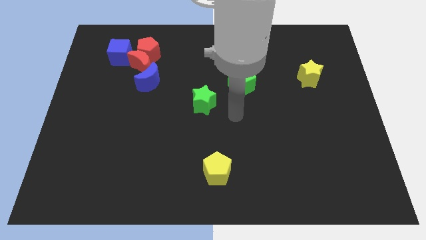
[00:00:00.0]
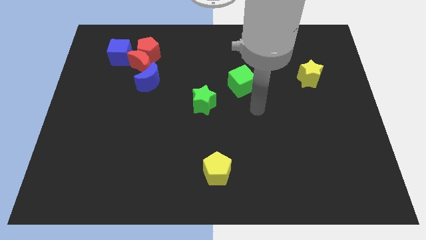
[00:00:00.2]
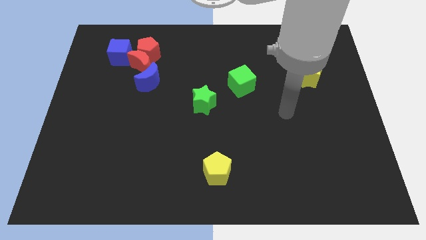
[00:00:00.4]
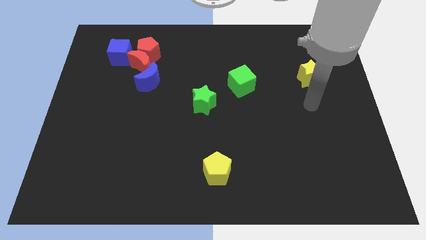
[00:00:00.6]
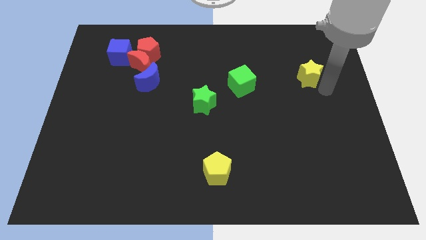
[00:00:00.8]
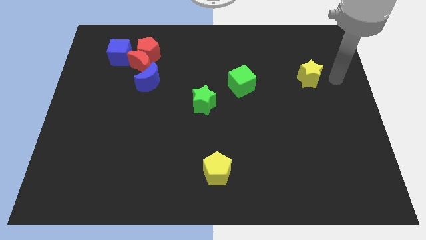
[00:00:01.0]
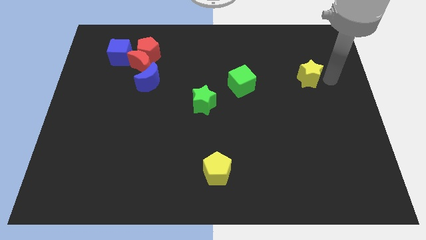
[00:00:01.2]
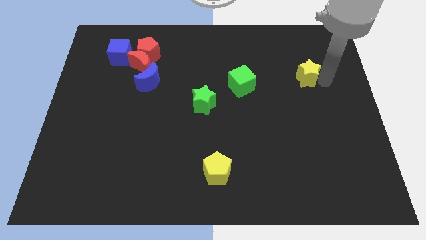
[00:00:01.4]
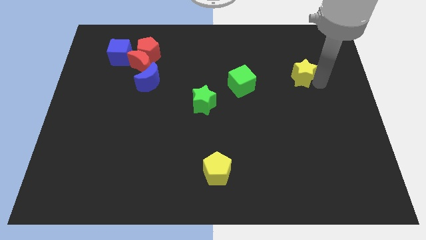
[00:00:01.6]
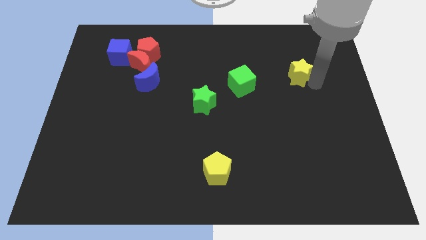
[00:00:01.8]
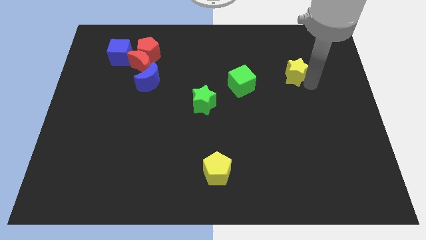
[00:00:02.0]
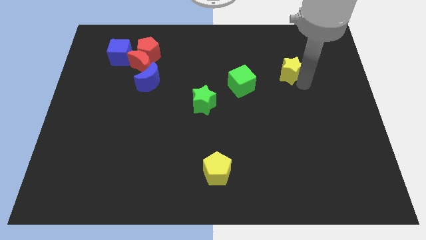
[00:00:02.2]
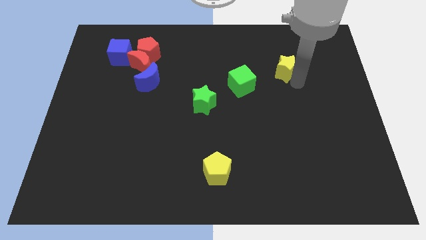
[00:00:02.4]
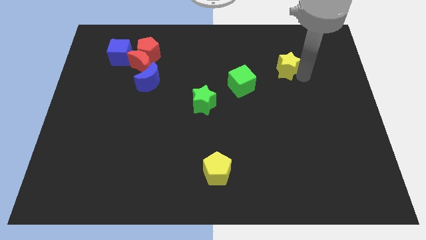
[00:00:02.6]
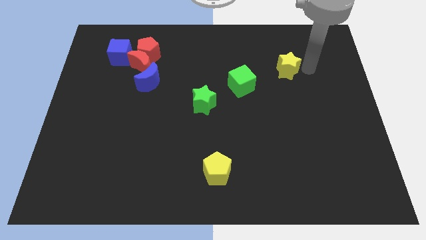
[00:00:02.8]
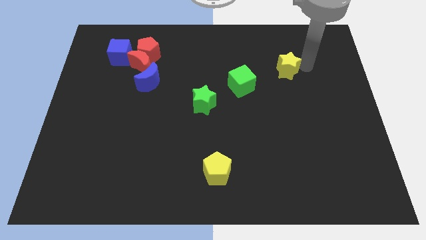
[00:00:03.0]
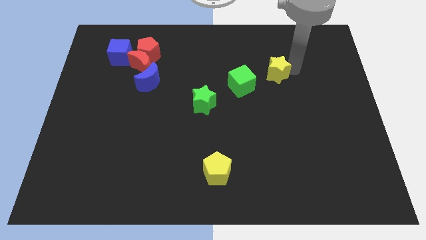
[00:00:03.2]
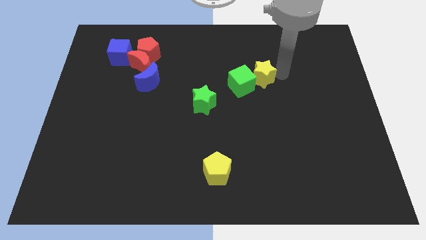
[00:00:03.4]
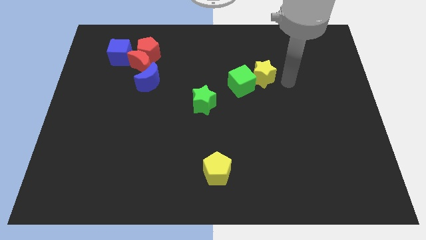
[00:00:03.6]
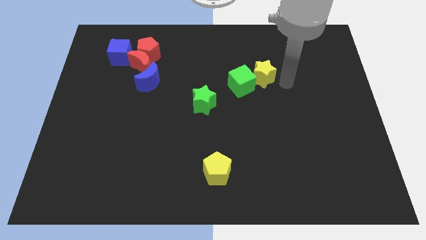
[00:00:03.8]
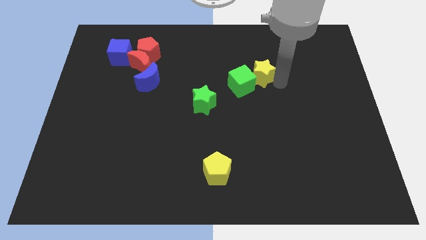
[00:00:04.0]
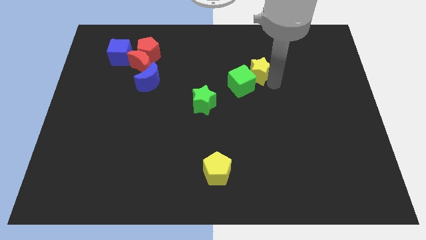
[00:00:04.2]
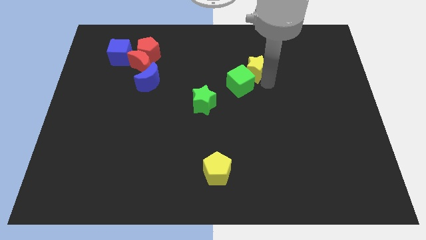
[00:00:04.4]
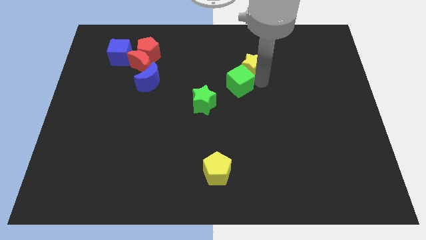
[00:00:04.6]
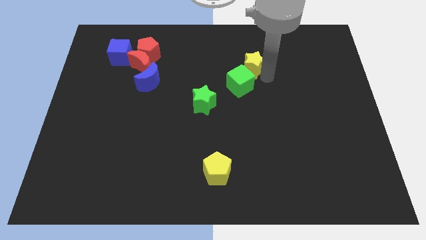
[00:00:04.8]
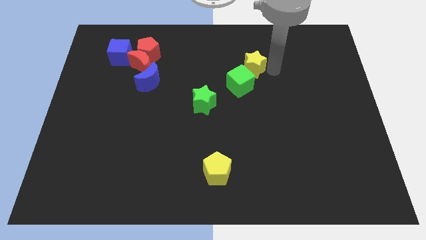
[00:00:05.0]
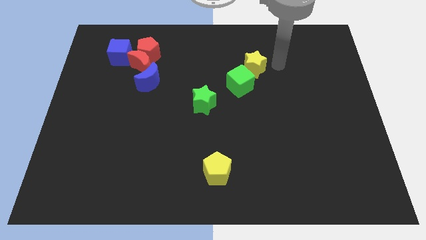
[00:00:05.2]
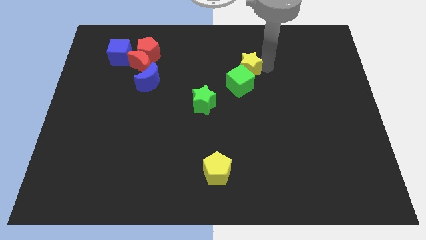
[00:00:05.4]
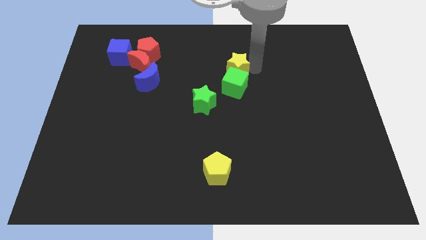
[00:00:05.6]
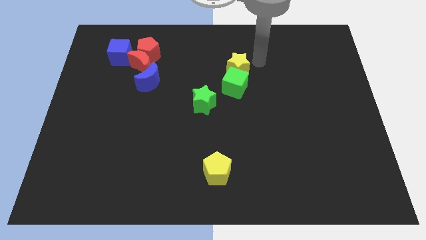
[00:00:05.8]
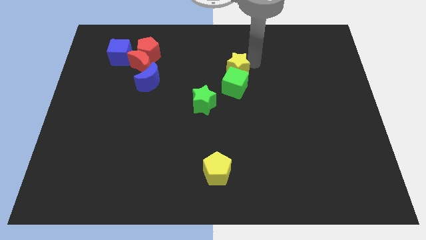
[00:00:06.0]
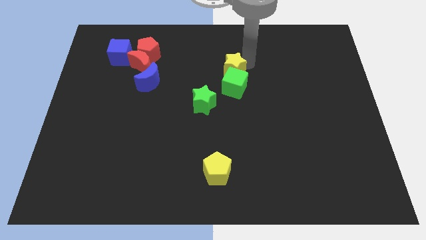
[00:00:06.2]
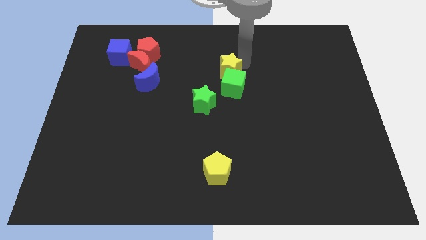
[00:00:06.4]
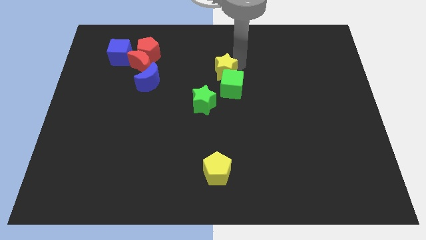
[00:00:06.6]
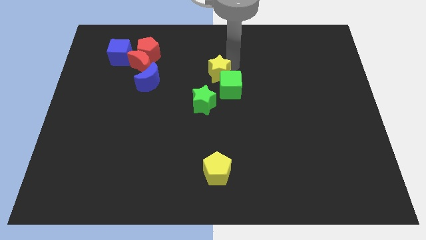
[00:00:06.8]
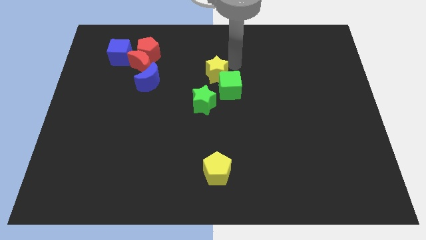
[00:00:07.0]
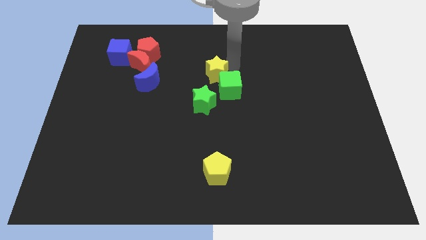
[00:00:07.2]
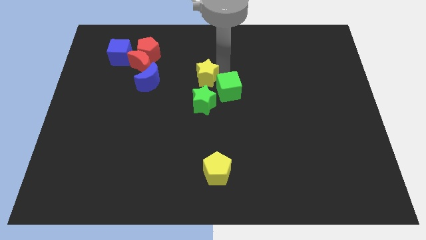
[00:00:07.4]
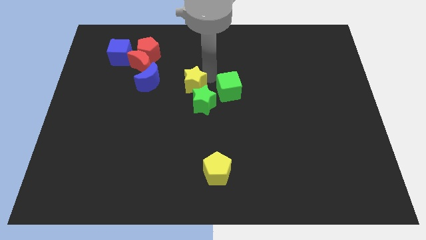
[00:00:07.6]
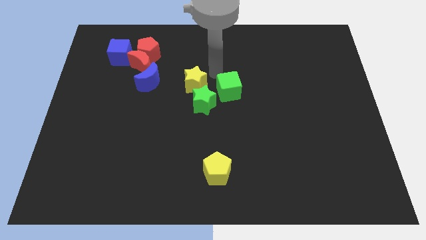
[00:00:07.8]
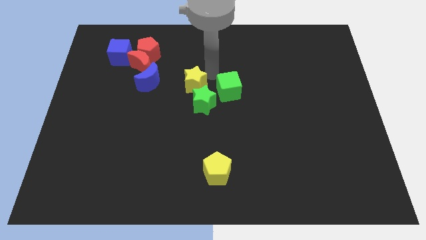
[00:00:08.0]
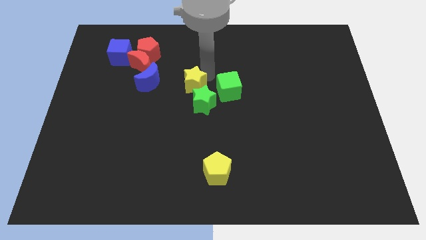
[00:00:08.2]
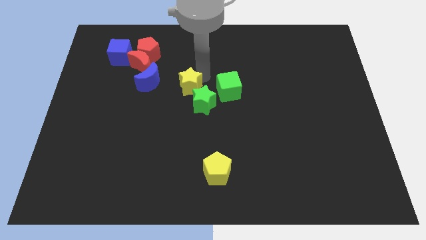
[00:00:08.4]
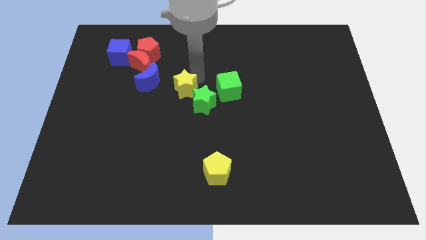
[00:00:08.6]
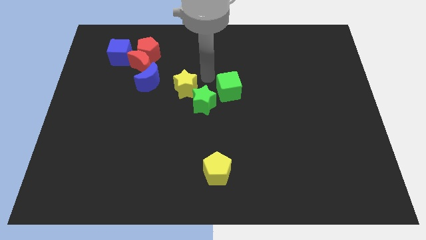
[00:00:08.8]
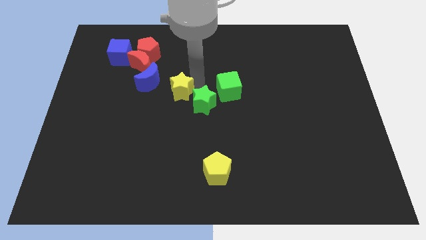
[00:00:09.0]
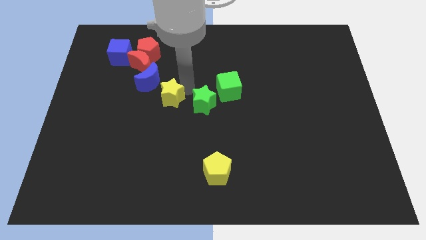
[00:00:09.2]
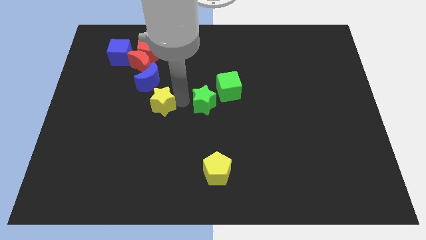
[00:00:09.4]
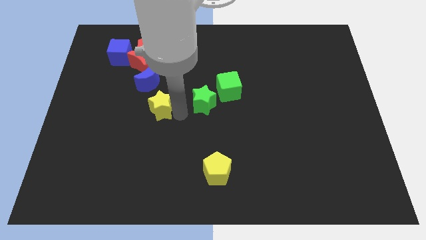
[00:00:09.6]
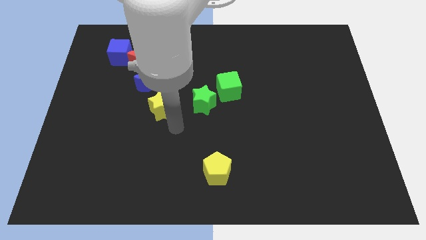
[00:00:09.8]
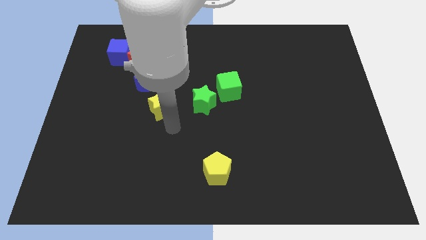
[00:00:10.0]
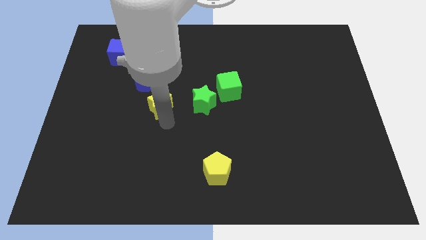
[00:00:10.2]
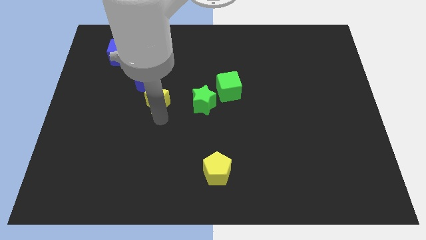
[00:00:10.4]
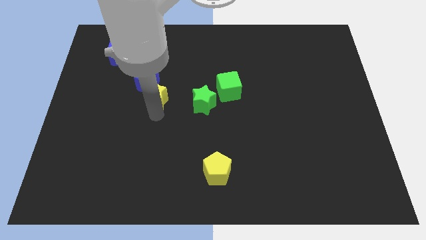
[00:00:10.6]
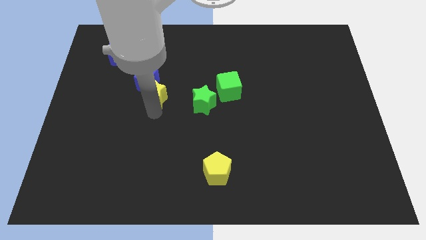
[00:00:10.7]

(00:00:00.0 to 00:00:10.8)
push the yellow star below the red pentagon

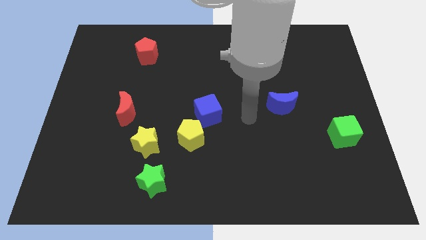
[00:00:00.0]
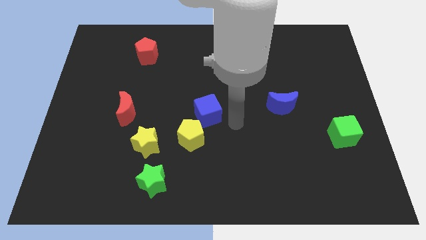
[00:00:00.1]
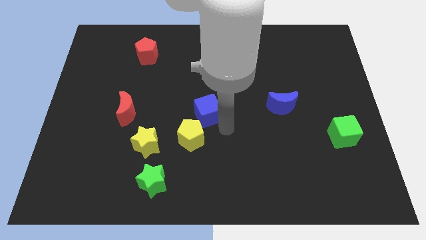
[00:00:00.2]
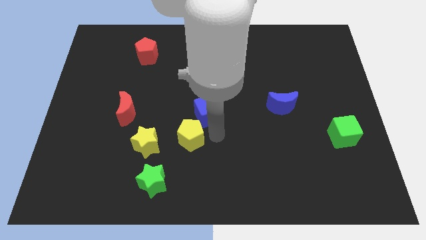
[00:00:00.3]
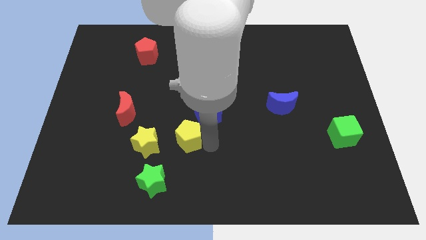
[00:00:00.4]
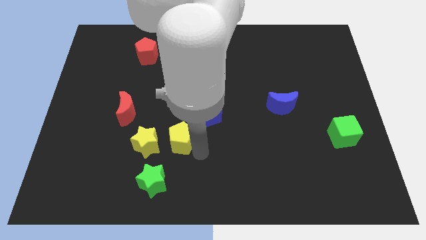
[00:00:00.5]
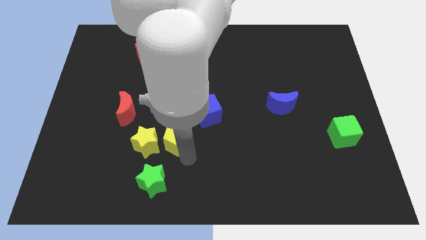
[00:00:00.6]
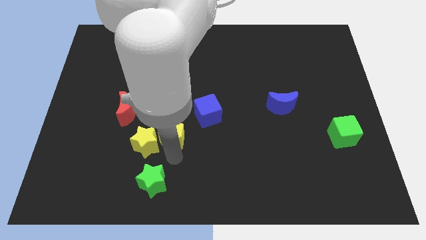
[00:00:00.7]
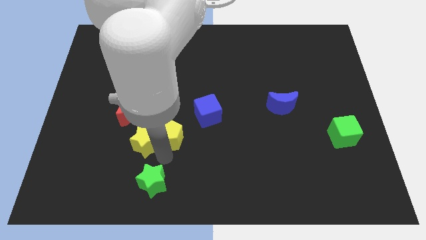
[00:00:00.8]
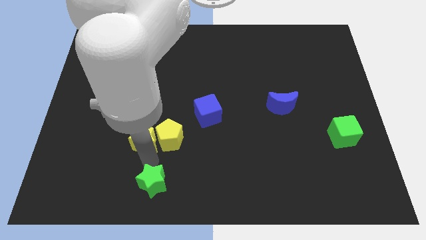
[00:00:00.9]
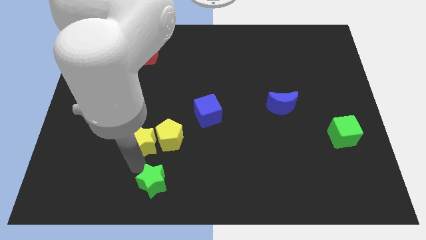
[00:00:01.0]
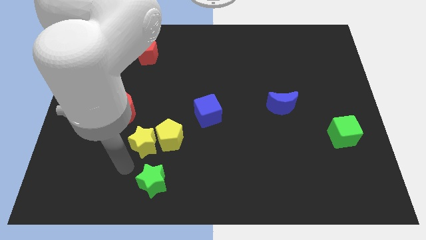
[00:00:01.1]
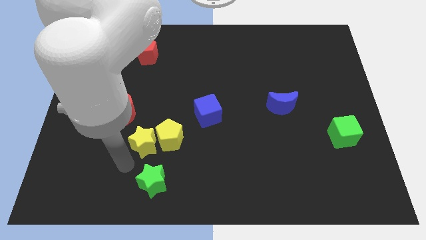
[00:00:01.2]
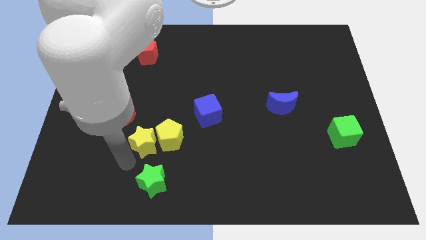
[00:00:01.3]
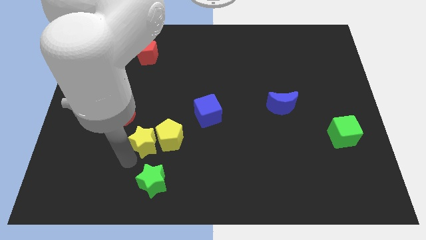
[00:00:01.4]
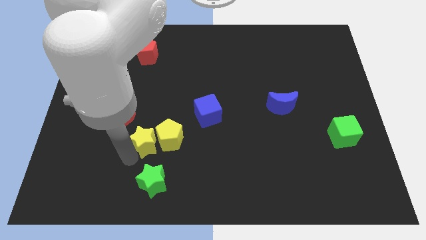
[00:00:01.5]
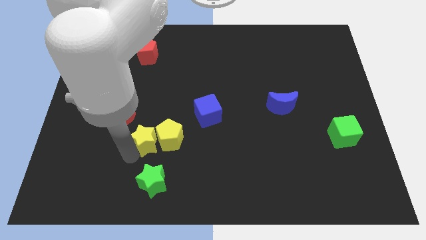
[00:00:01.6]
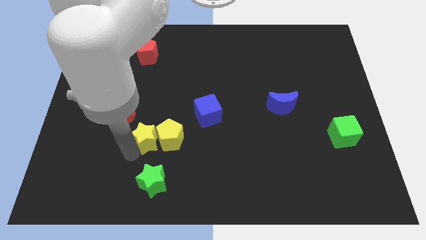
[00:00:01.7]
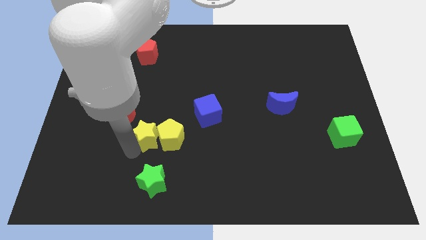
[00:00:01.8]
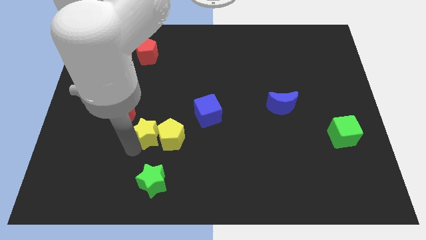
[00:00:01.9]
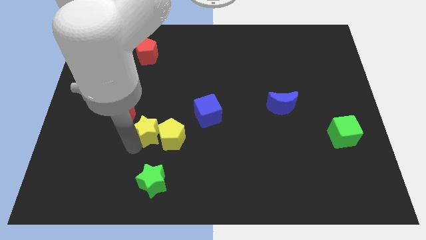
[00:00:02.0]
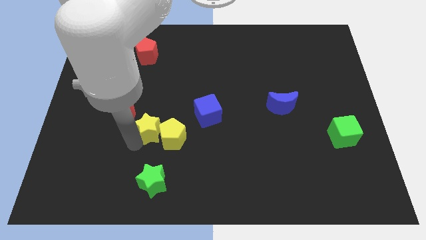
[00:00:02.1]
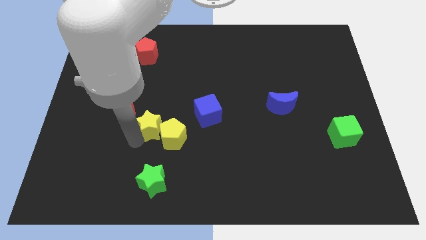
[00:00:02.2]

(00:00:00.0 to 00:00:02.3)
move the yellow star just left of the blue cube
